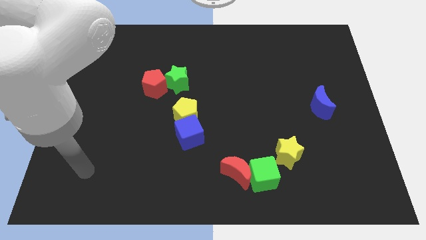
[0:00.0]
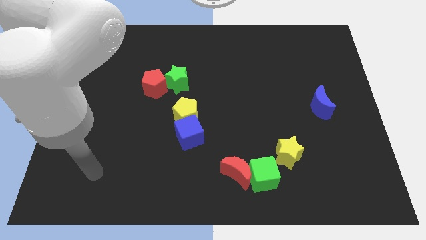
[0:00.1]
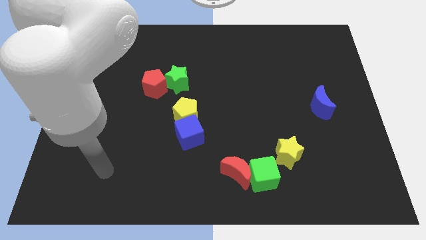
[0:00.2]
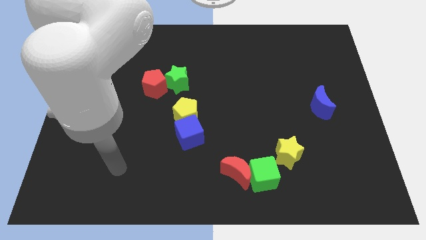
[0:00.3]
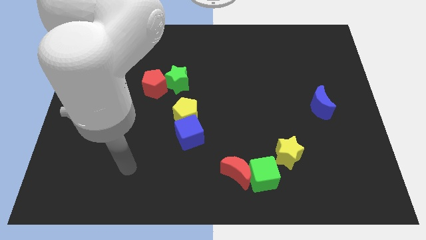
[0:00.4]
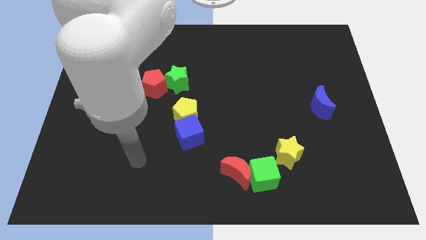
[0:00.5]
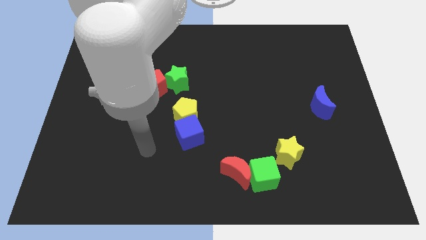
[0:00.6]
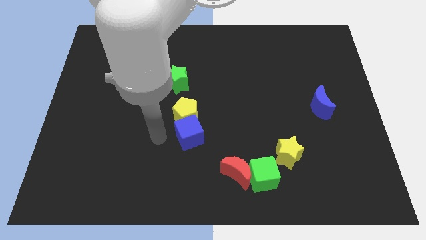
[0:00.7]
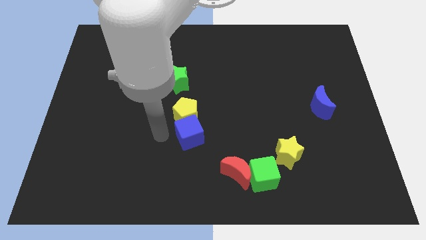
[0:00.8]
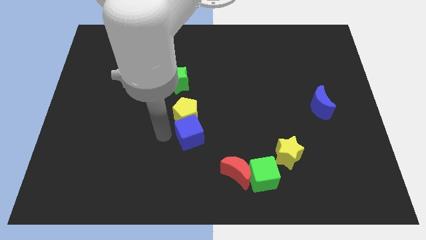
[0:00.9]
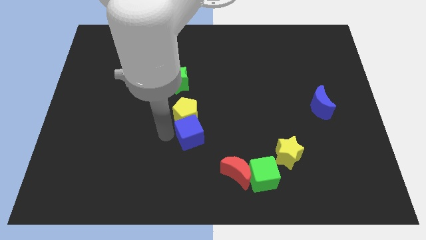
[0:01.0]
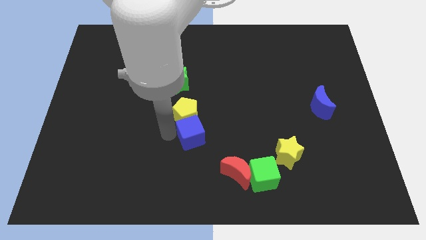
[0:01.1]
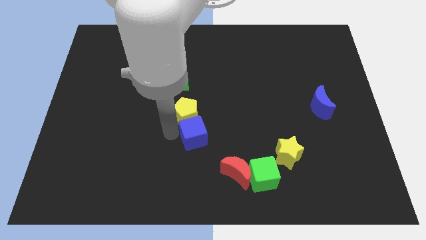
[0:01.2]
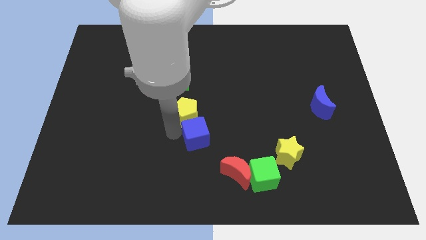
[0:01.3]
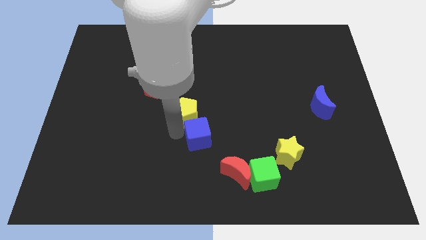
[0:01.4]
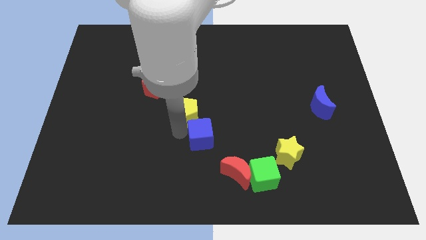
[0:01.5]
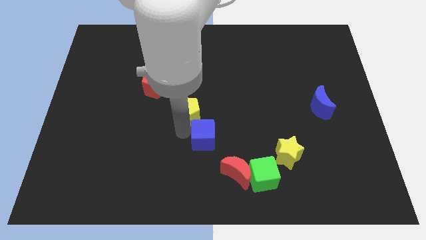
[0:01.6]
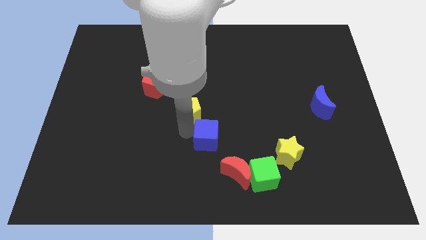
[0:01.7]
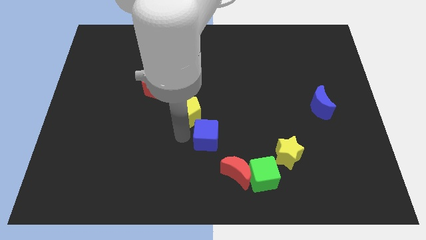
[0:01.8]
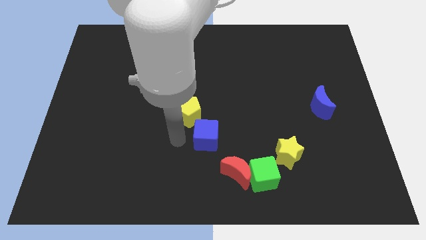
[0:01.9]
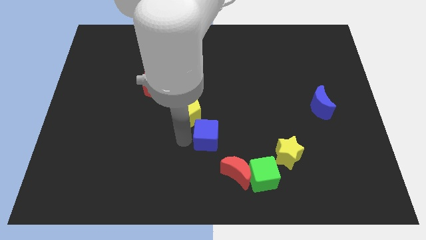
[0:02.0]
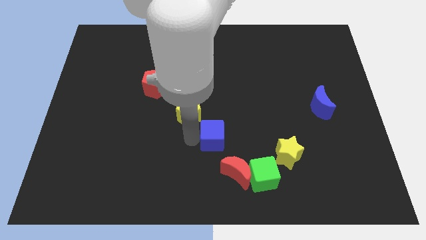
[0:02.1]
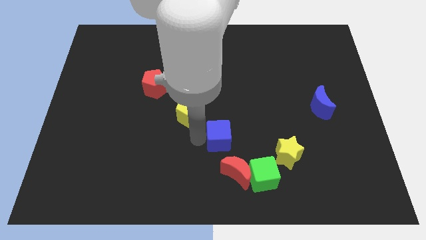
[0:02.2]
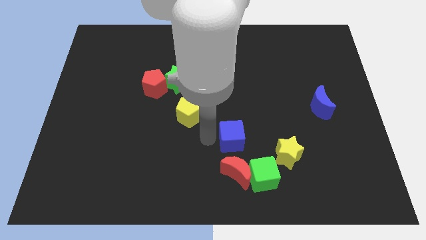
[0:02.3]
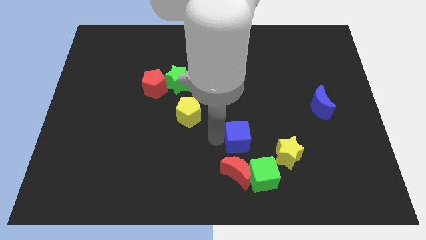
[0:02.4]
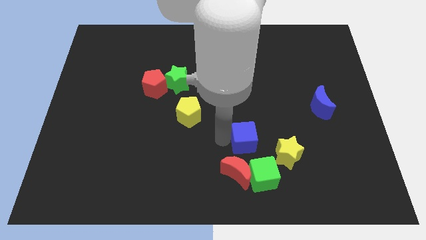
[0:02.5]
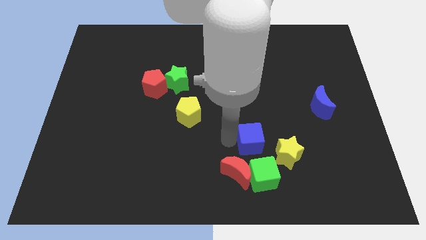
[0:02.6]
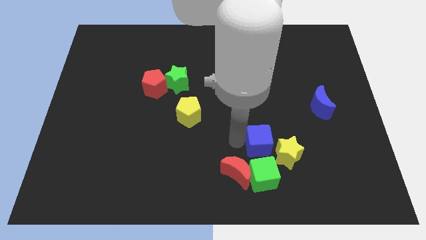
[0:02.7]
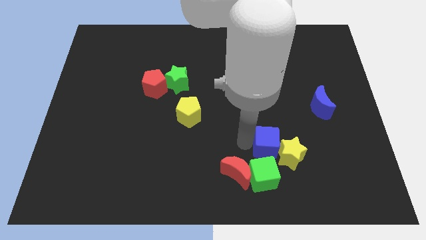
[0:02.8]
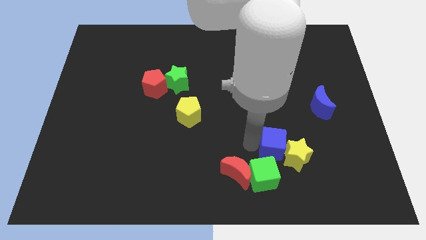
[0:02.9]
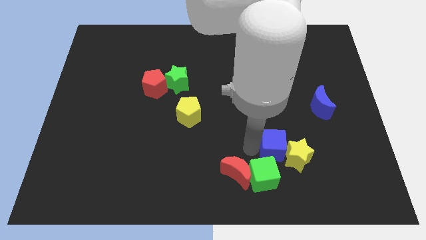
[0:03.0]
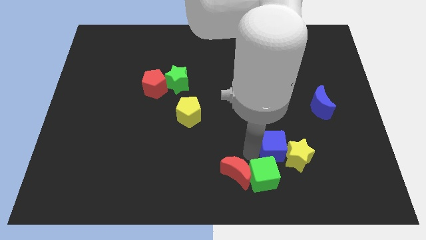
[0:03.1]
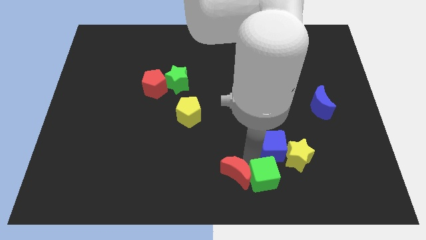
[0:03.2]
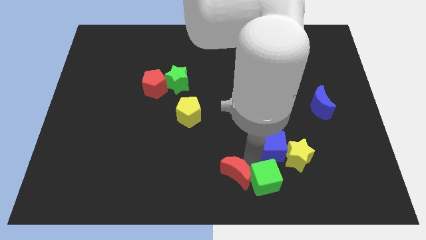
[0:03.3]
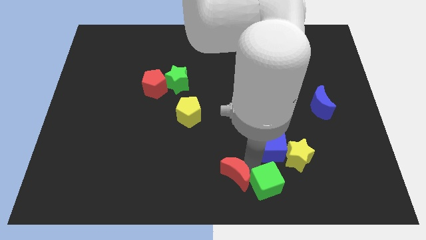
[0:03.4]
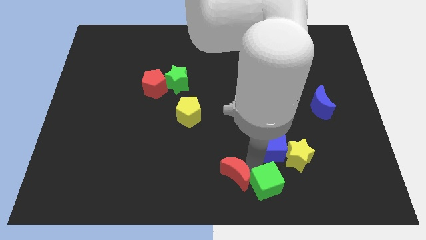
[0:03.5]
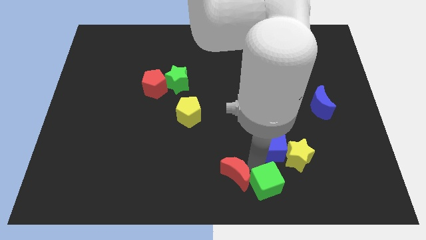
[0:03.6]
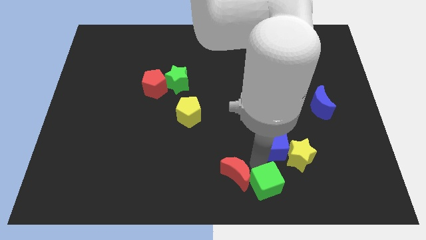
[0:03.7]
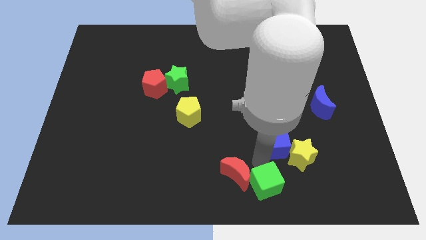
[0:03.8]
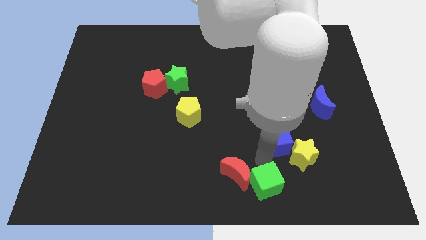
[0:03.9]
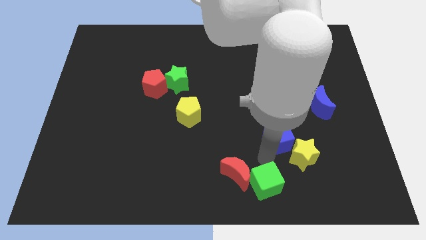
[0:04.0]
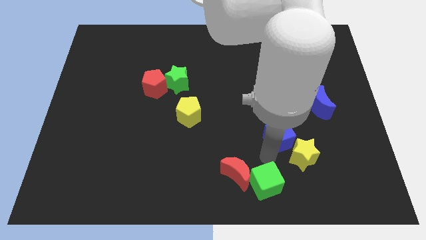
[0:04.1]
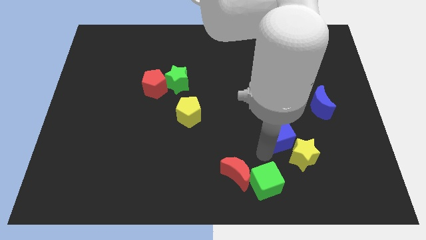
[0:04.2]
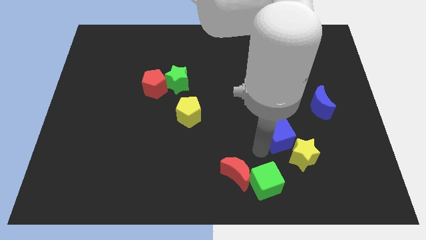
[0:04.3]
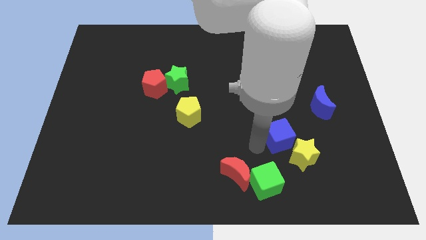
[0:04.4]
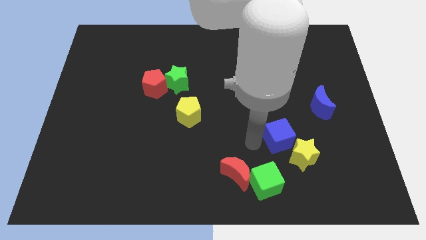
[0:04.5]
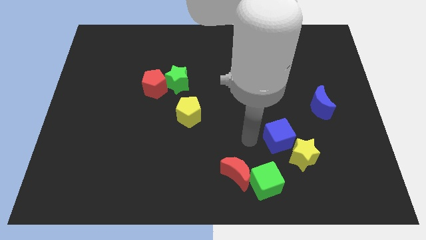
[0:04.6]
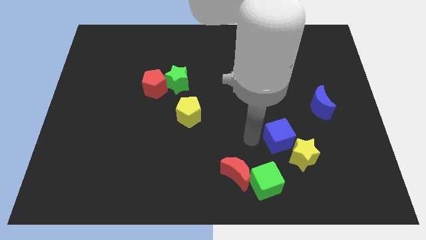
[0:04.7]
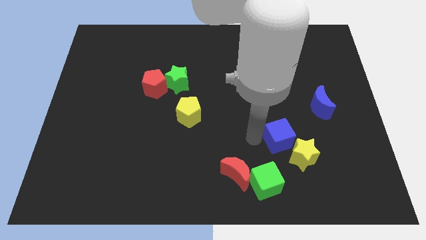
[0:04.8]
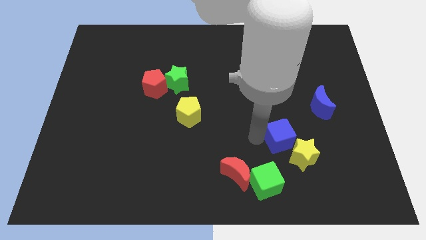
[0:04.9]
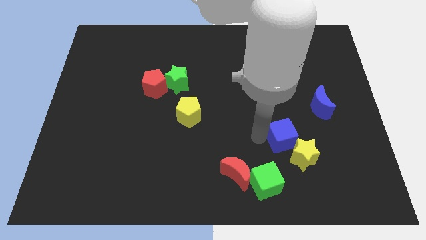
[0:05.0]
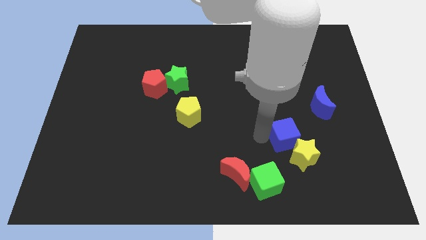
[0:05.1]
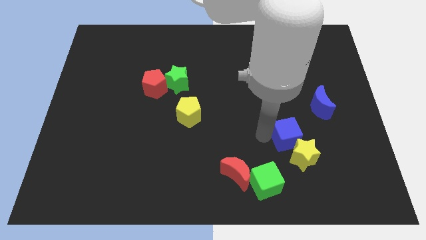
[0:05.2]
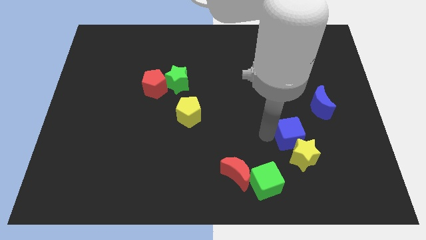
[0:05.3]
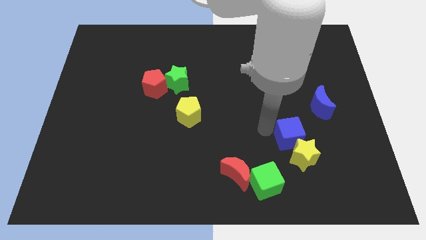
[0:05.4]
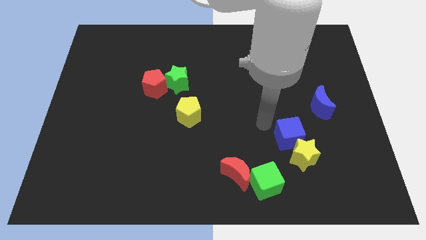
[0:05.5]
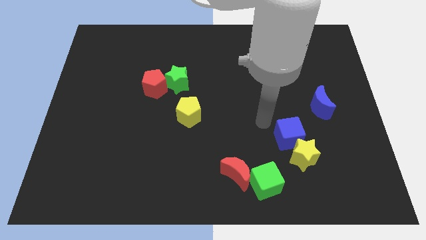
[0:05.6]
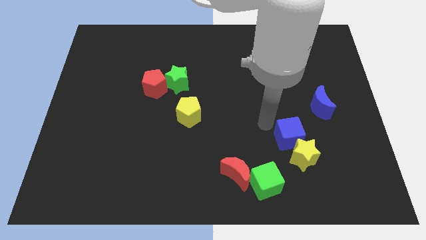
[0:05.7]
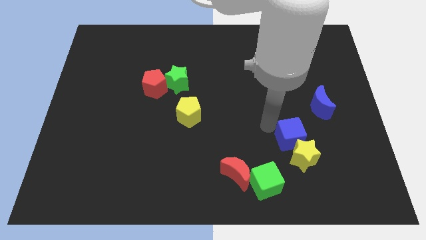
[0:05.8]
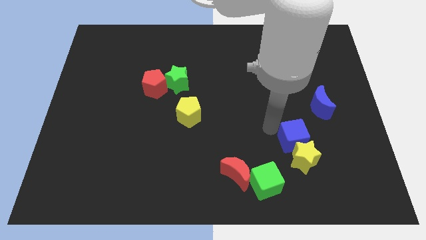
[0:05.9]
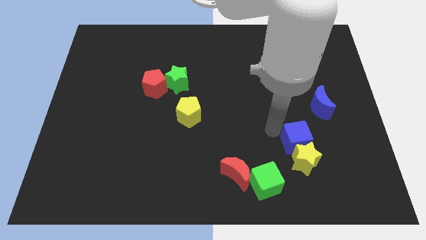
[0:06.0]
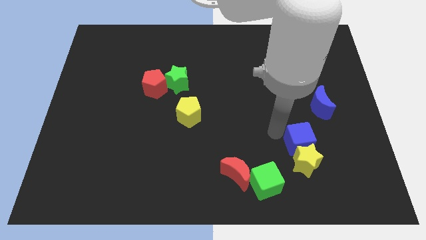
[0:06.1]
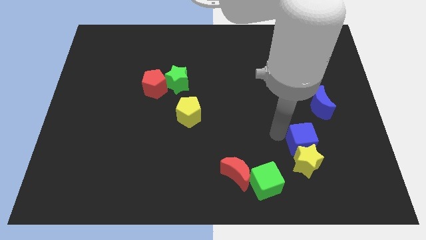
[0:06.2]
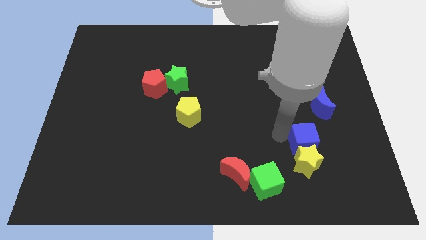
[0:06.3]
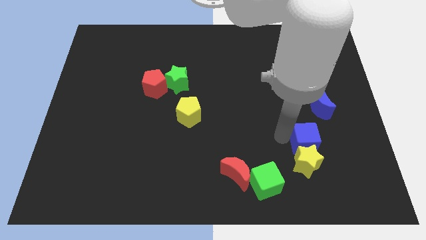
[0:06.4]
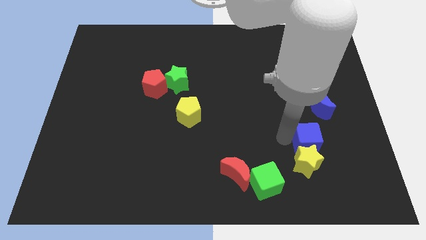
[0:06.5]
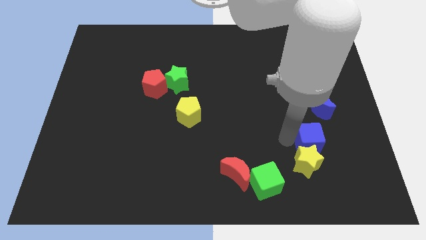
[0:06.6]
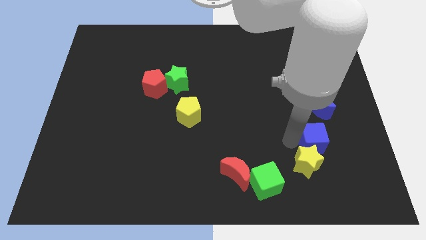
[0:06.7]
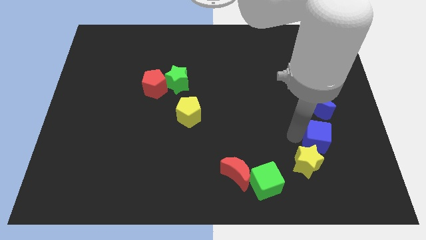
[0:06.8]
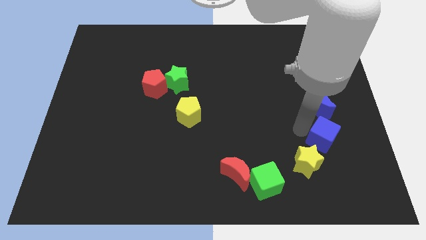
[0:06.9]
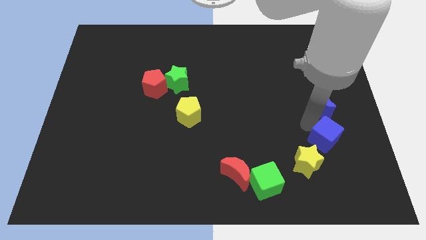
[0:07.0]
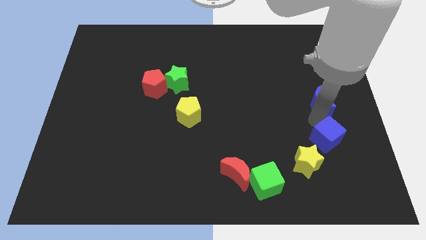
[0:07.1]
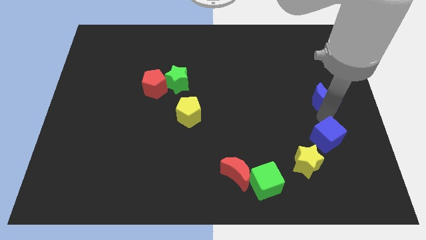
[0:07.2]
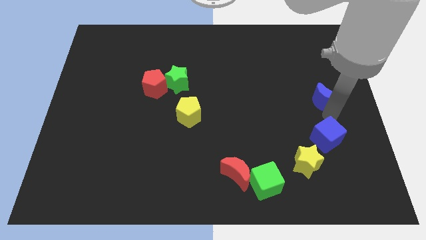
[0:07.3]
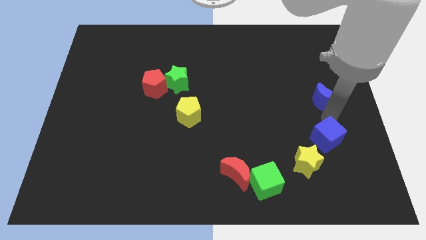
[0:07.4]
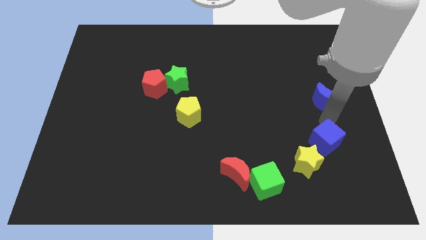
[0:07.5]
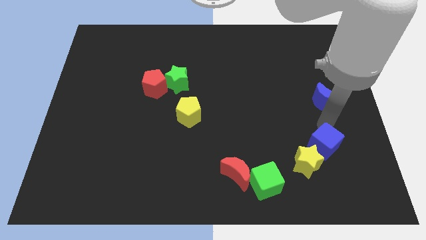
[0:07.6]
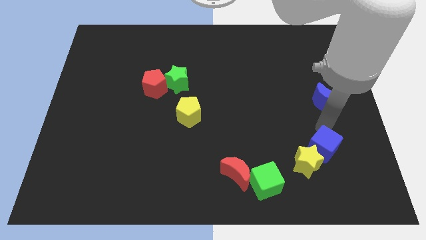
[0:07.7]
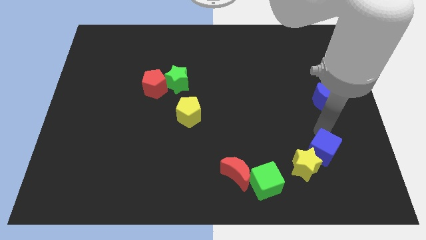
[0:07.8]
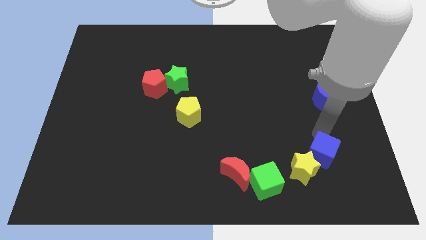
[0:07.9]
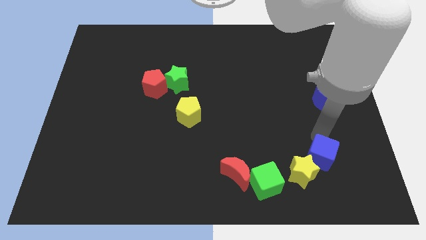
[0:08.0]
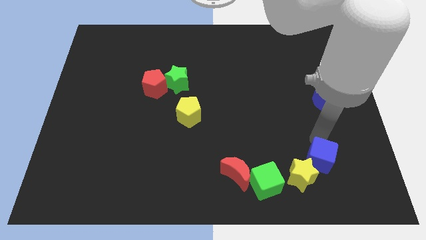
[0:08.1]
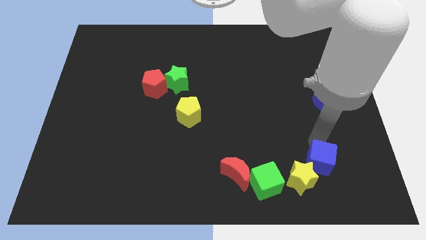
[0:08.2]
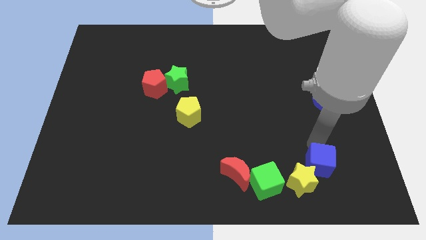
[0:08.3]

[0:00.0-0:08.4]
put the blue cube right of the green cube
